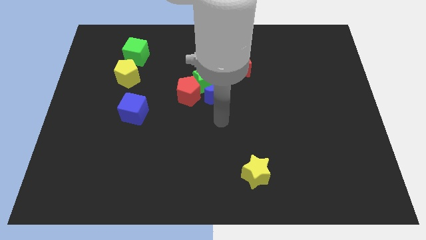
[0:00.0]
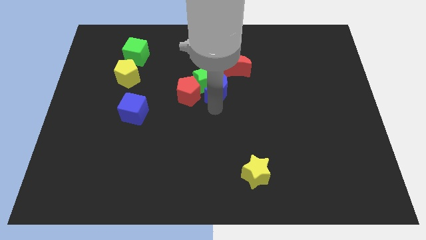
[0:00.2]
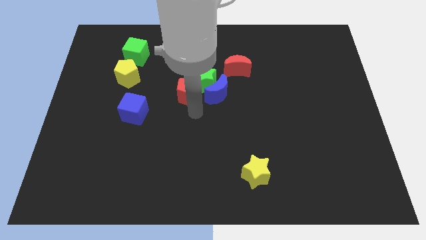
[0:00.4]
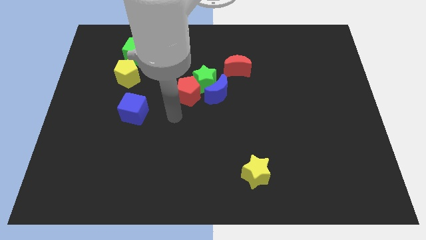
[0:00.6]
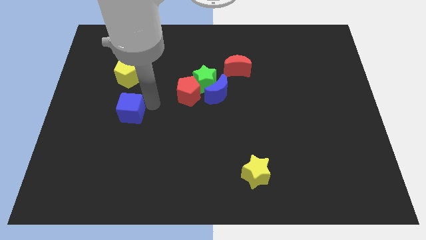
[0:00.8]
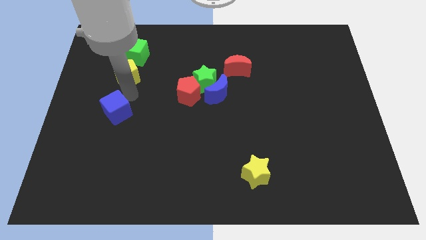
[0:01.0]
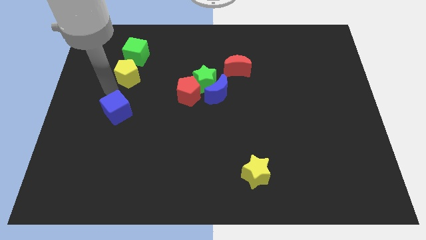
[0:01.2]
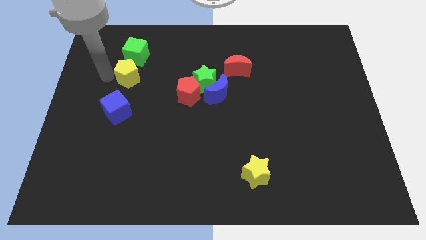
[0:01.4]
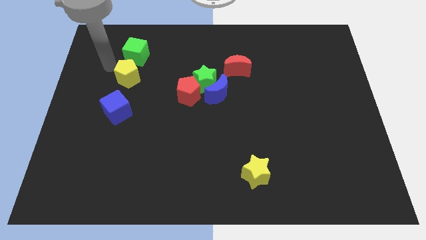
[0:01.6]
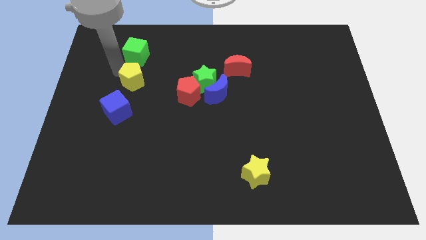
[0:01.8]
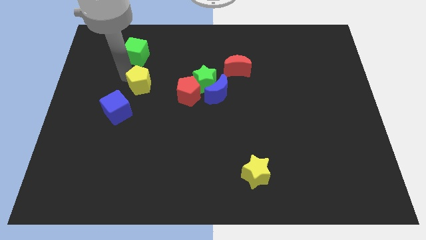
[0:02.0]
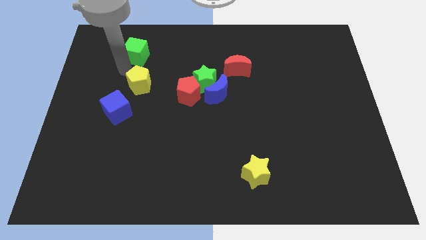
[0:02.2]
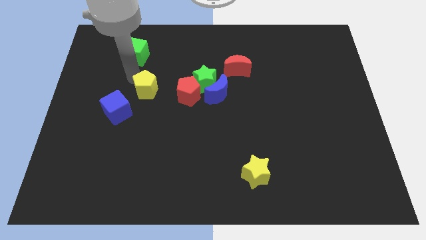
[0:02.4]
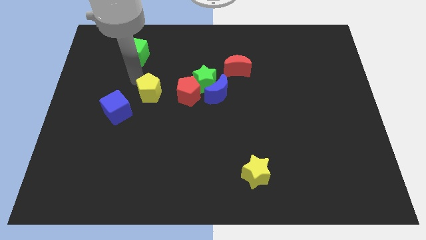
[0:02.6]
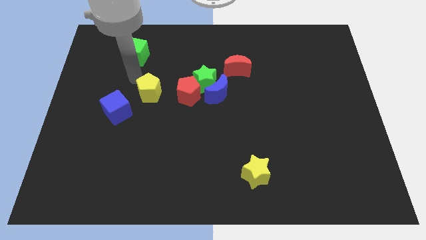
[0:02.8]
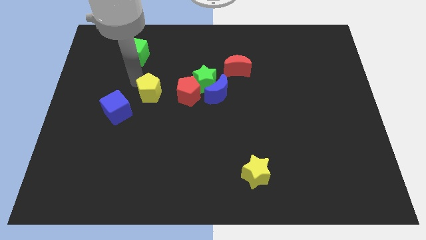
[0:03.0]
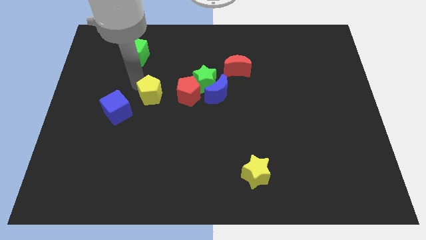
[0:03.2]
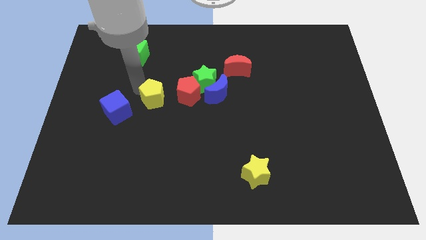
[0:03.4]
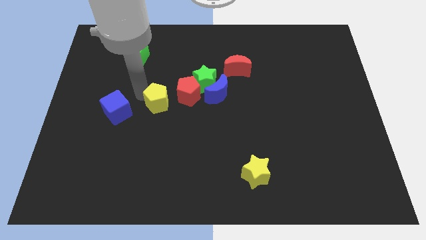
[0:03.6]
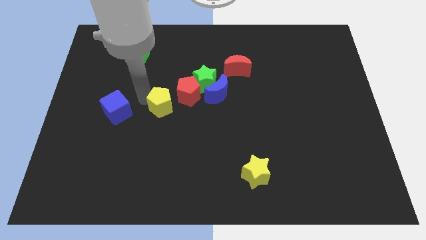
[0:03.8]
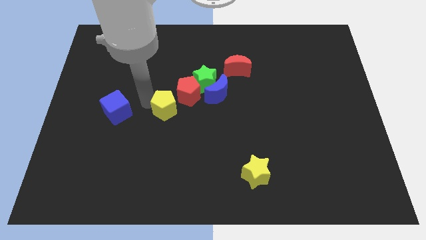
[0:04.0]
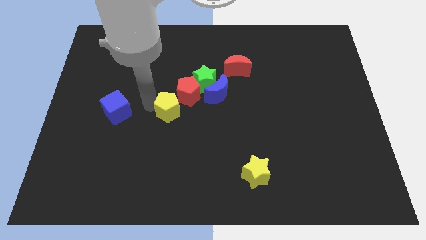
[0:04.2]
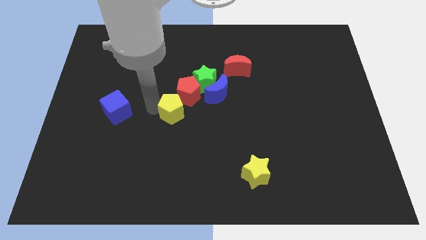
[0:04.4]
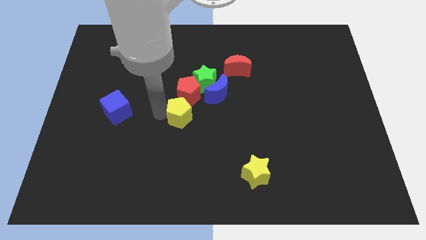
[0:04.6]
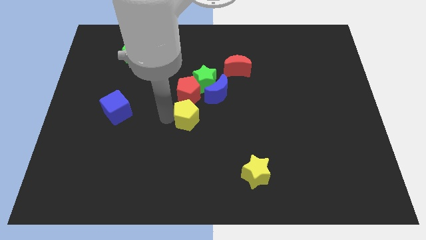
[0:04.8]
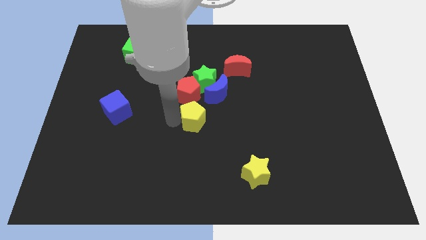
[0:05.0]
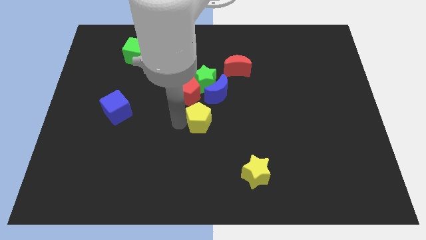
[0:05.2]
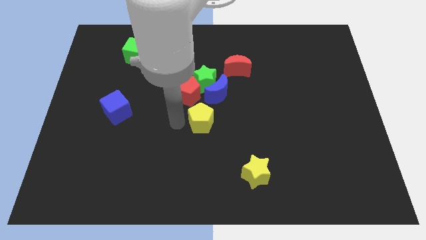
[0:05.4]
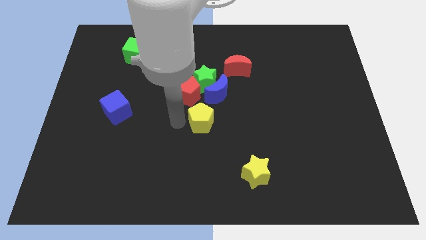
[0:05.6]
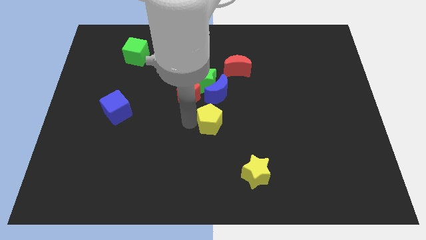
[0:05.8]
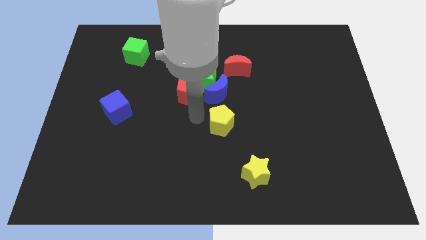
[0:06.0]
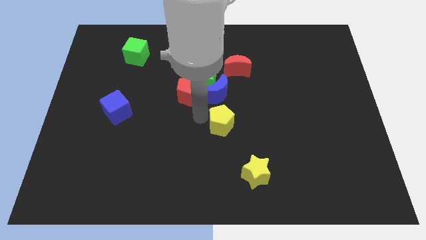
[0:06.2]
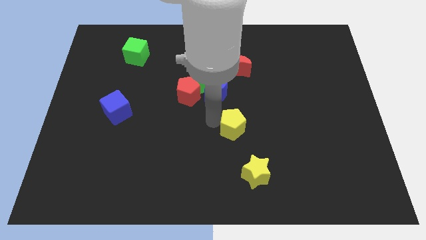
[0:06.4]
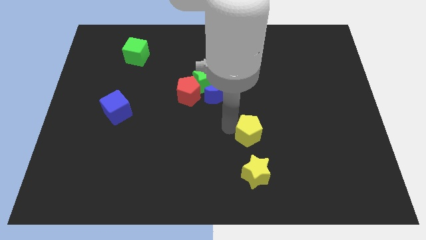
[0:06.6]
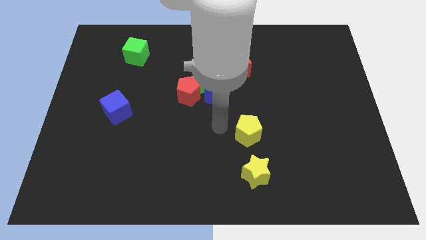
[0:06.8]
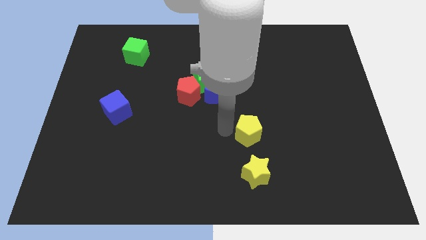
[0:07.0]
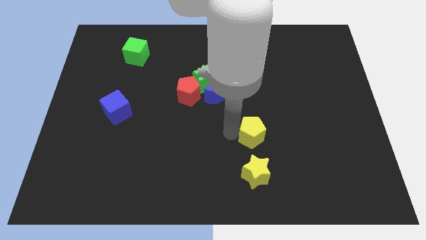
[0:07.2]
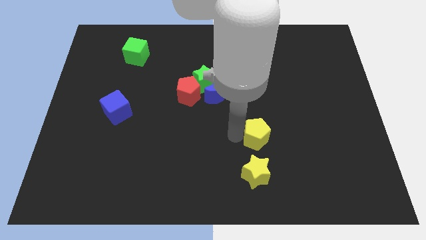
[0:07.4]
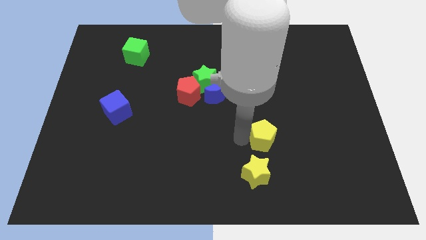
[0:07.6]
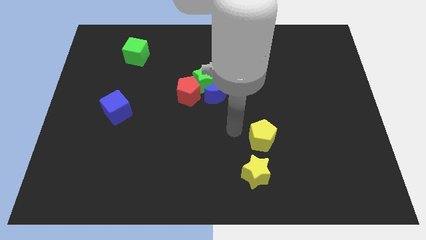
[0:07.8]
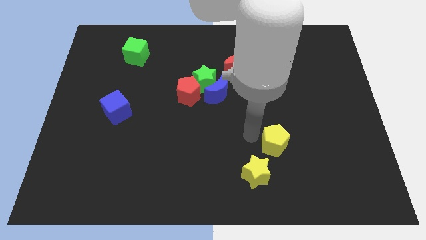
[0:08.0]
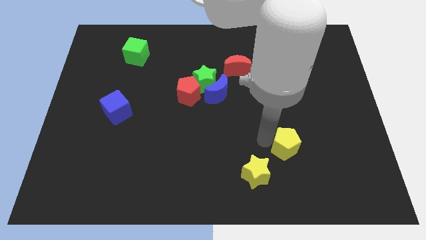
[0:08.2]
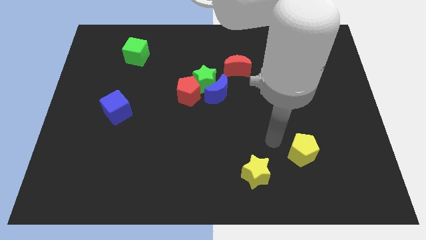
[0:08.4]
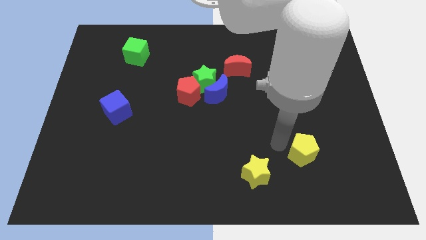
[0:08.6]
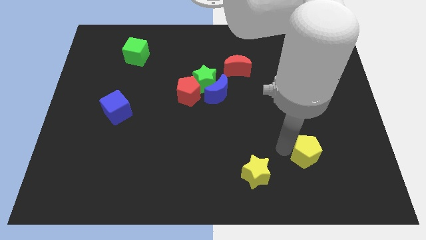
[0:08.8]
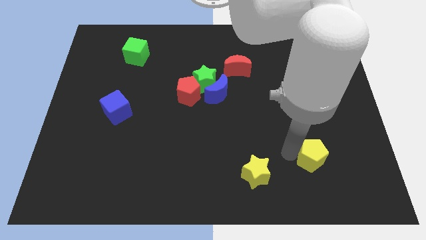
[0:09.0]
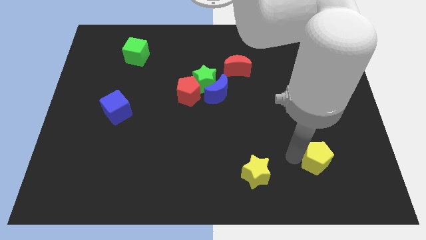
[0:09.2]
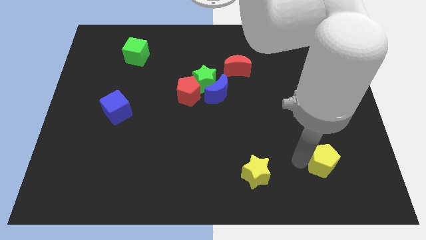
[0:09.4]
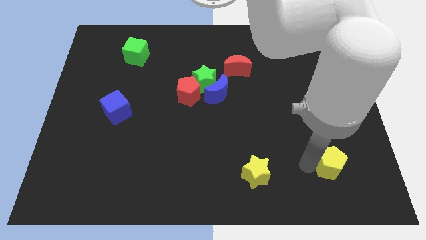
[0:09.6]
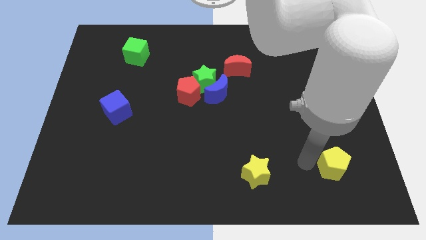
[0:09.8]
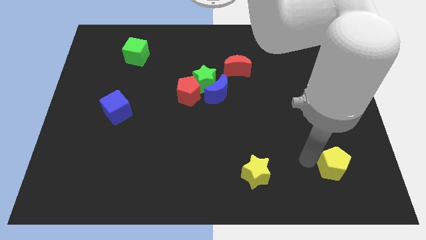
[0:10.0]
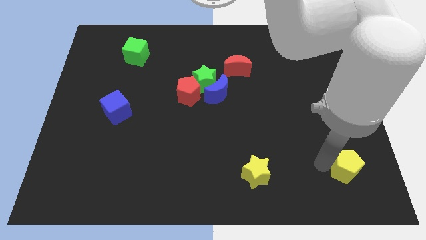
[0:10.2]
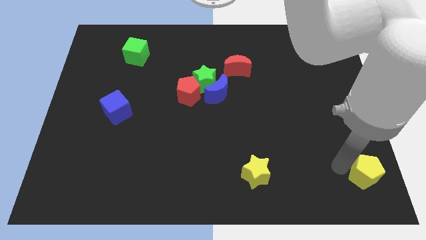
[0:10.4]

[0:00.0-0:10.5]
slide the yellow pentagon to the bottom right
